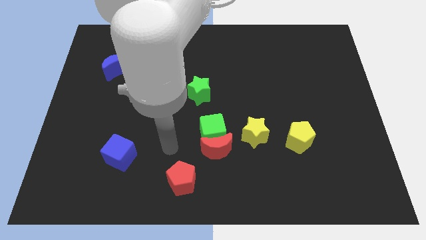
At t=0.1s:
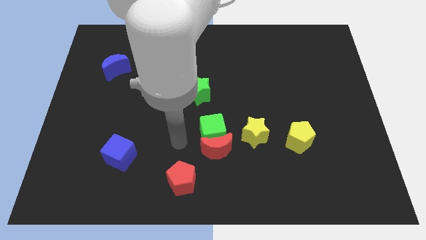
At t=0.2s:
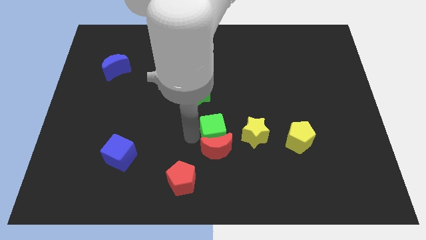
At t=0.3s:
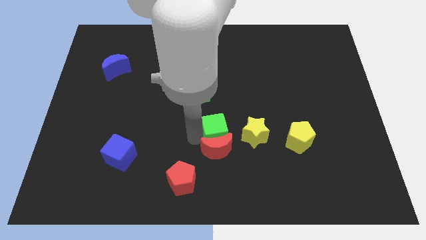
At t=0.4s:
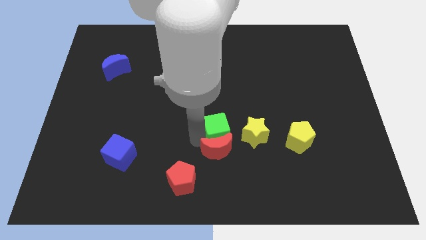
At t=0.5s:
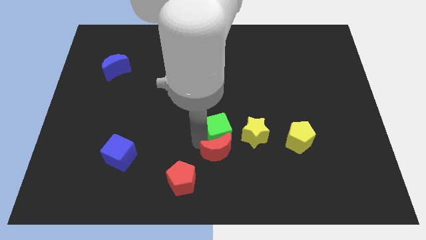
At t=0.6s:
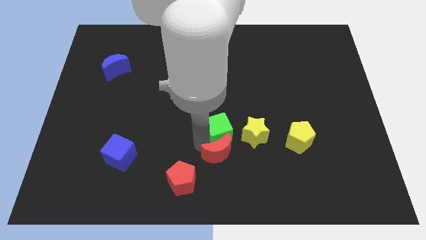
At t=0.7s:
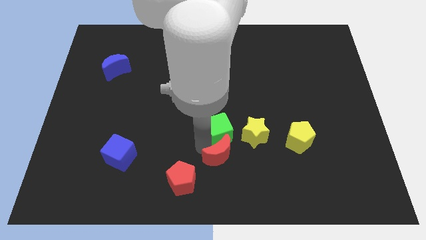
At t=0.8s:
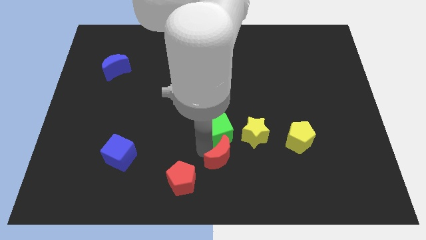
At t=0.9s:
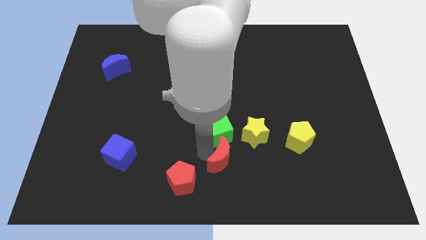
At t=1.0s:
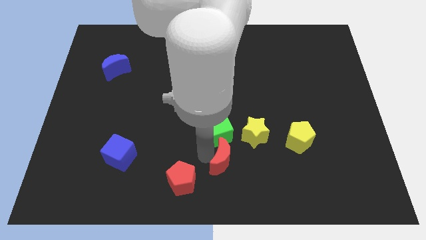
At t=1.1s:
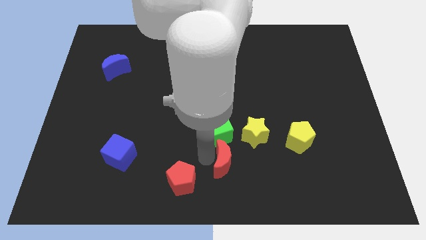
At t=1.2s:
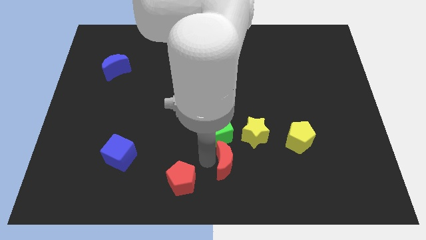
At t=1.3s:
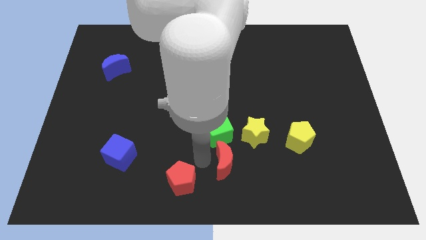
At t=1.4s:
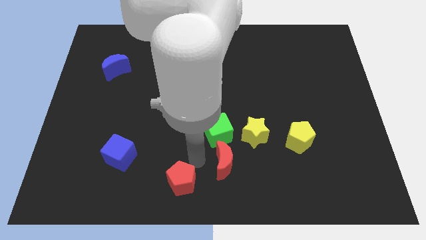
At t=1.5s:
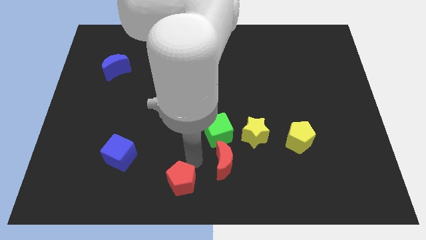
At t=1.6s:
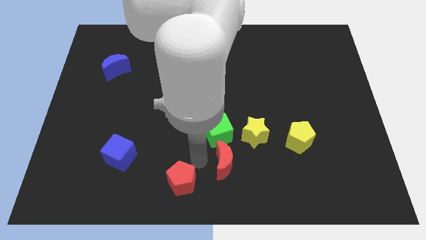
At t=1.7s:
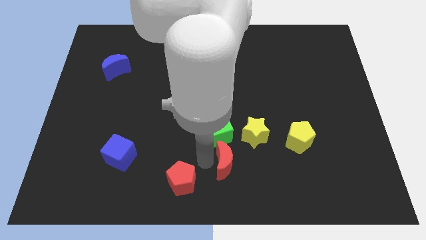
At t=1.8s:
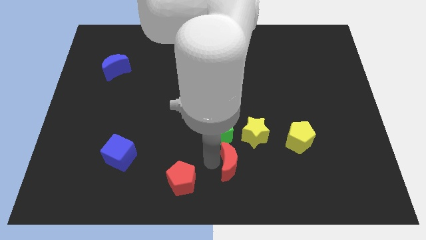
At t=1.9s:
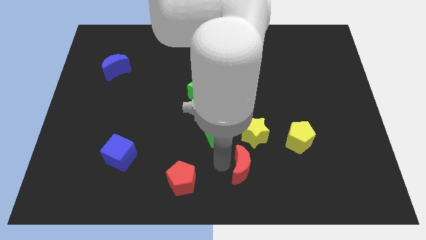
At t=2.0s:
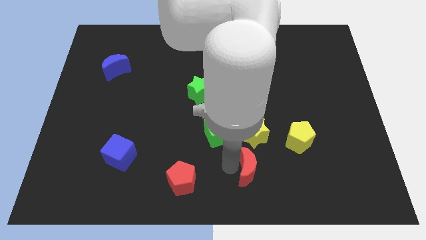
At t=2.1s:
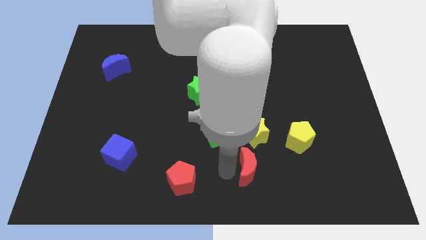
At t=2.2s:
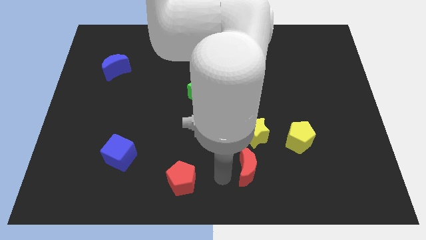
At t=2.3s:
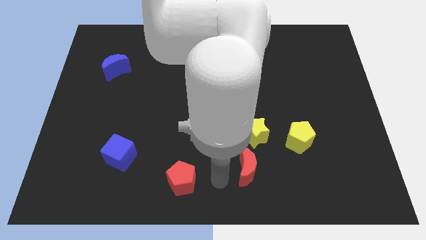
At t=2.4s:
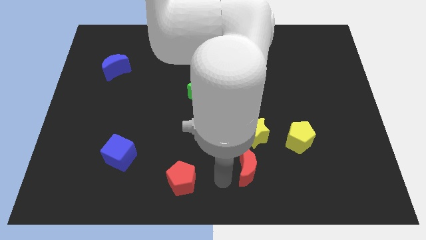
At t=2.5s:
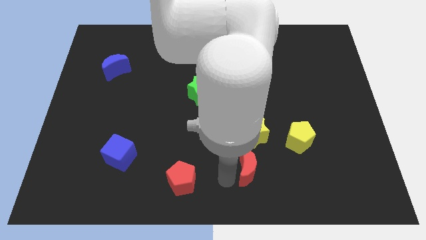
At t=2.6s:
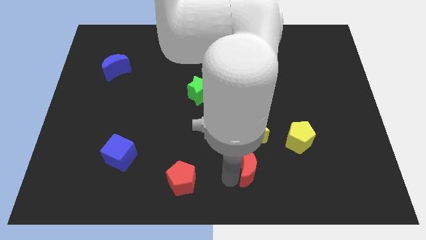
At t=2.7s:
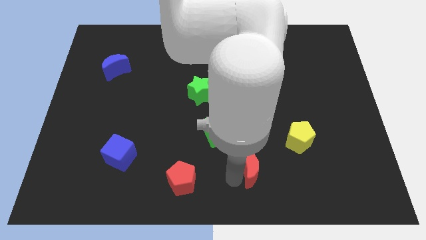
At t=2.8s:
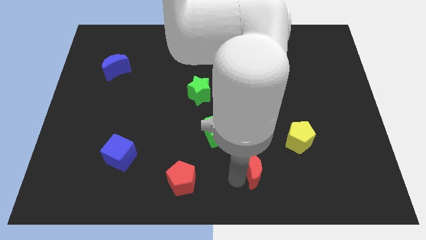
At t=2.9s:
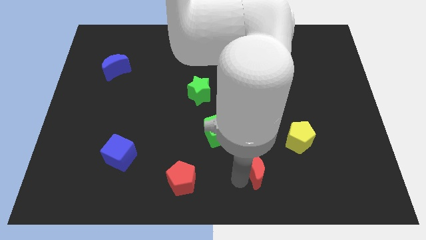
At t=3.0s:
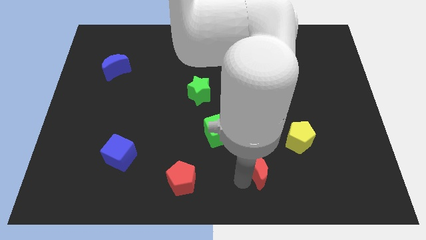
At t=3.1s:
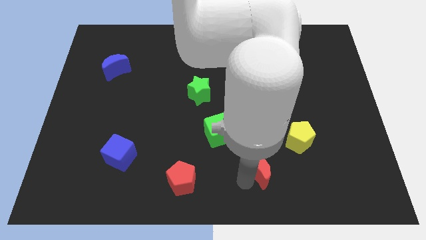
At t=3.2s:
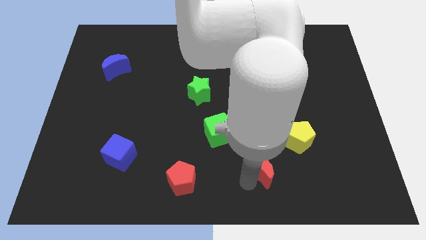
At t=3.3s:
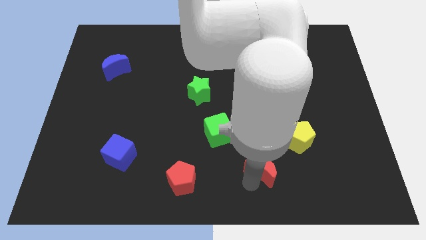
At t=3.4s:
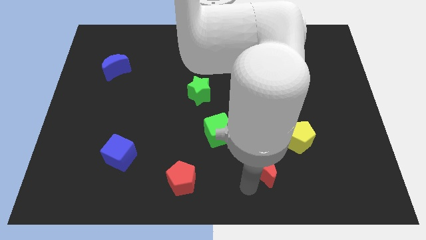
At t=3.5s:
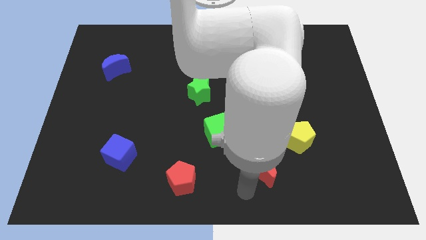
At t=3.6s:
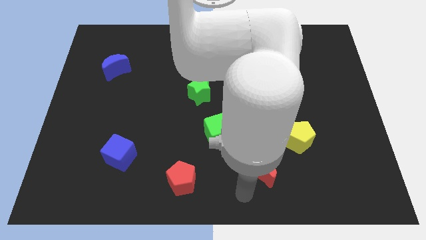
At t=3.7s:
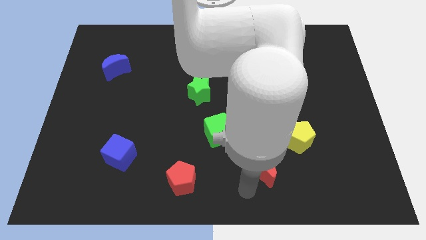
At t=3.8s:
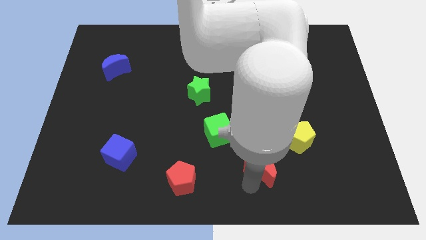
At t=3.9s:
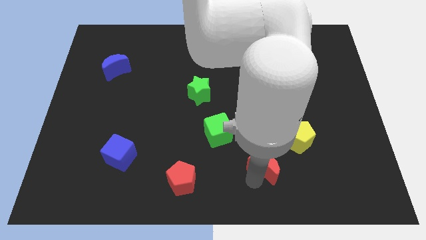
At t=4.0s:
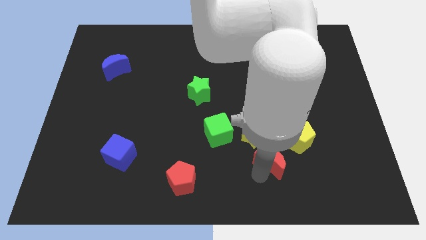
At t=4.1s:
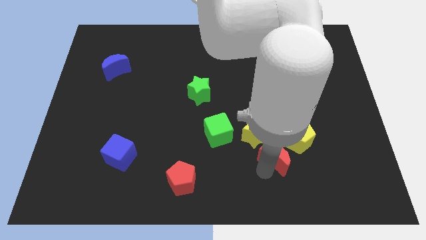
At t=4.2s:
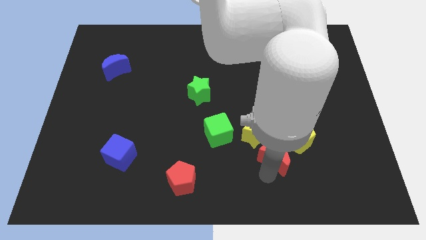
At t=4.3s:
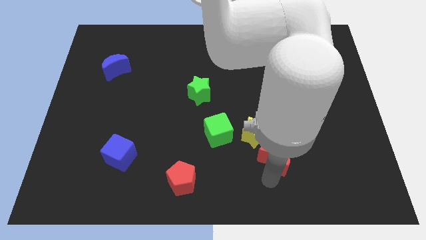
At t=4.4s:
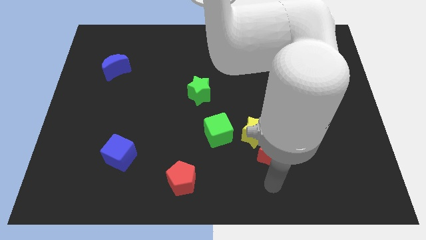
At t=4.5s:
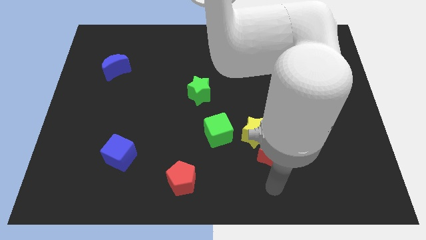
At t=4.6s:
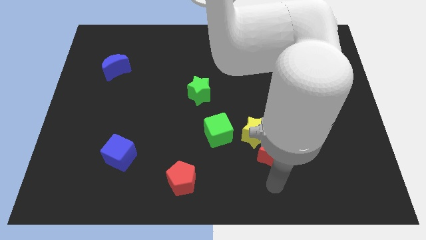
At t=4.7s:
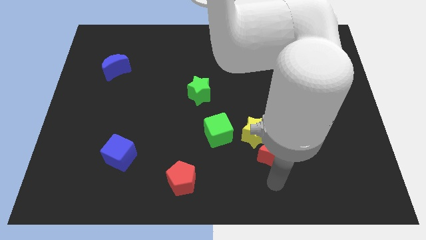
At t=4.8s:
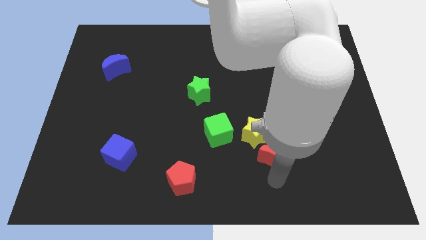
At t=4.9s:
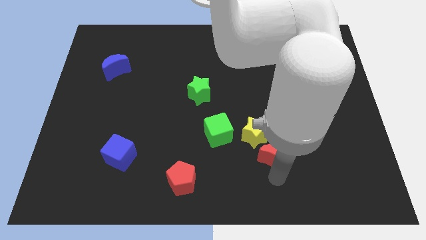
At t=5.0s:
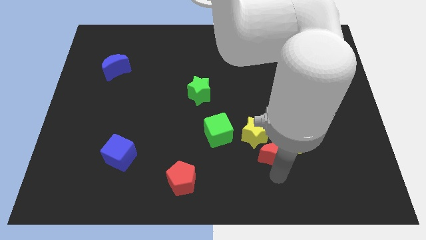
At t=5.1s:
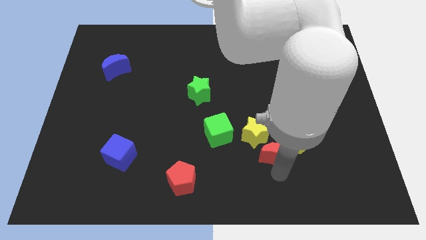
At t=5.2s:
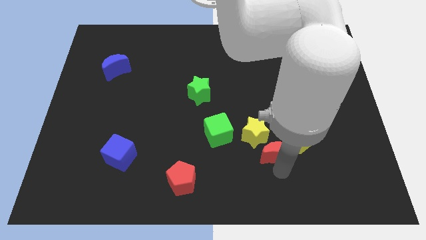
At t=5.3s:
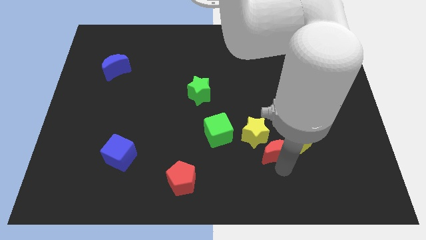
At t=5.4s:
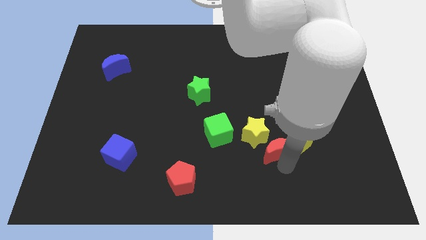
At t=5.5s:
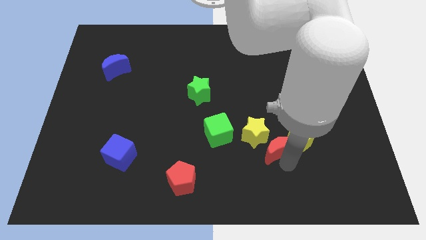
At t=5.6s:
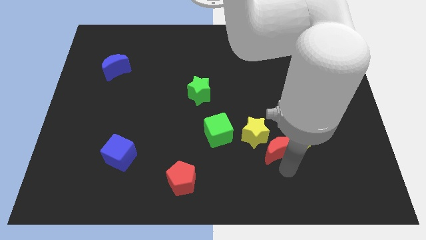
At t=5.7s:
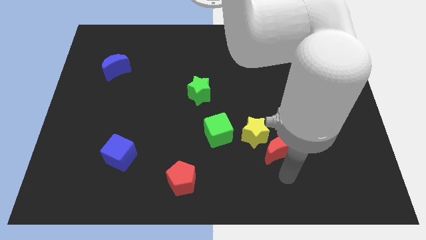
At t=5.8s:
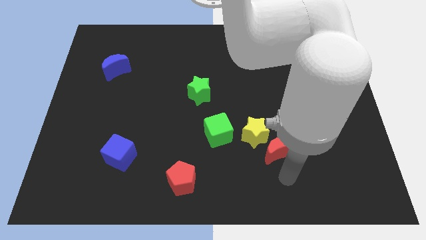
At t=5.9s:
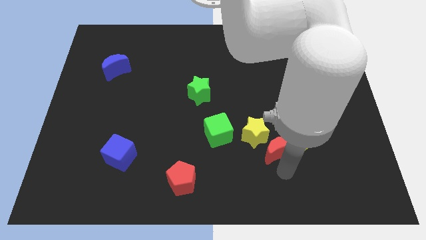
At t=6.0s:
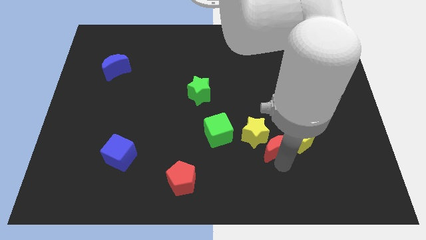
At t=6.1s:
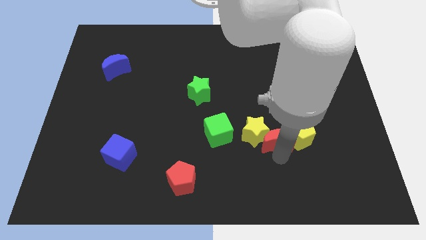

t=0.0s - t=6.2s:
push the red moon a little bit up and right diagonally

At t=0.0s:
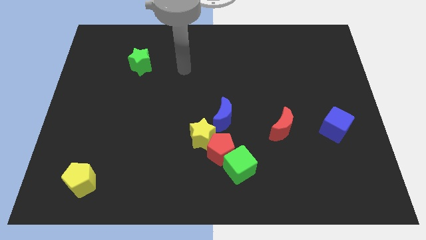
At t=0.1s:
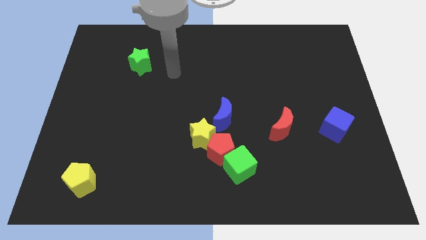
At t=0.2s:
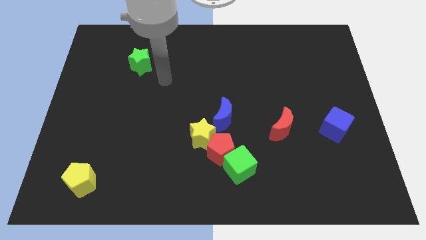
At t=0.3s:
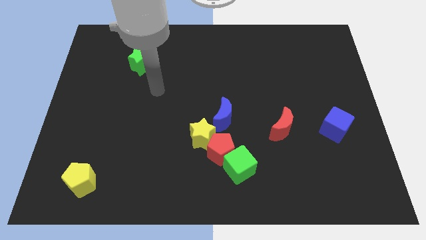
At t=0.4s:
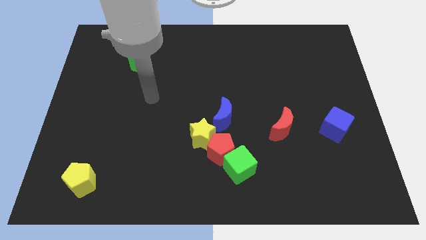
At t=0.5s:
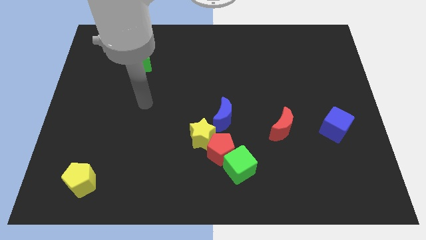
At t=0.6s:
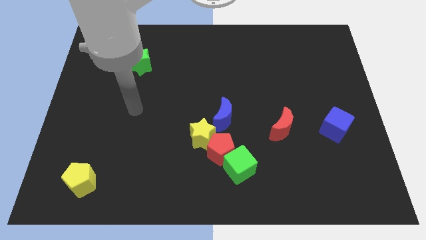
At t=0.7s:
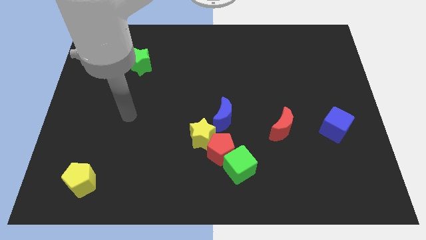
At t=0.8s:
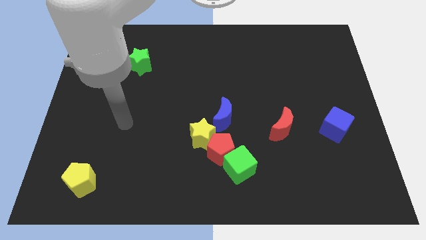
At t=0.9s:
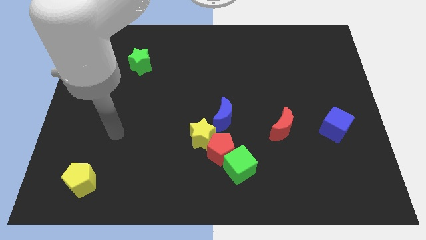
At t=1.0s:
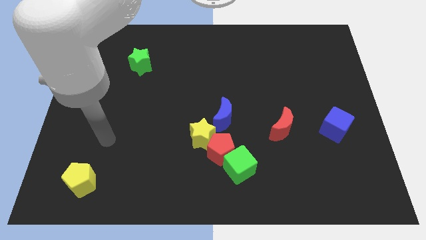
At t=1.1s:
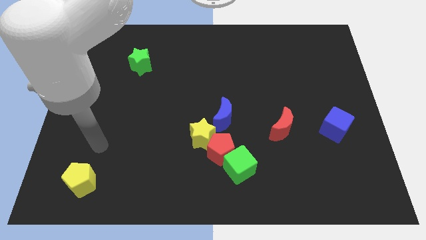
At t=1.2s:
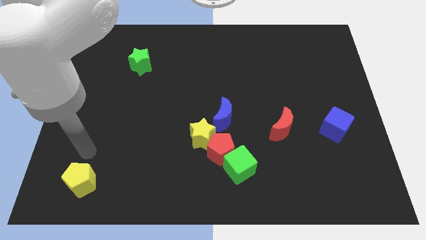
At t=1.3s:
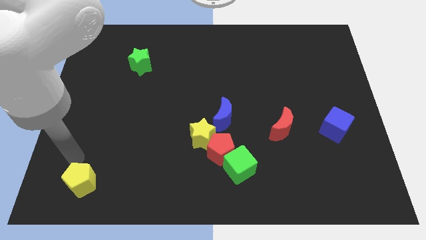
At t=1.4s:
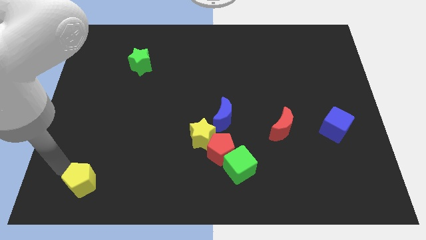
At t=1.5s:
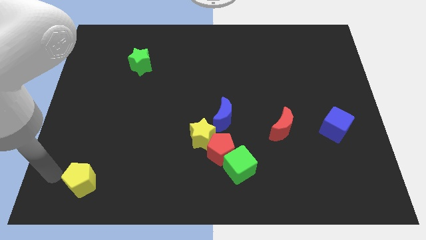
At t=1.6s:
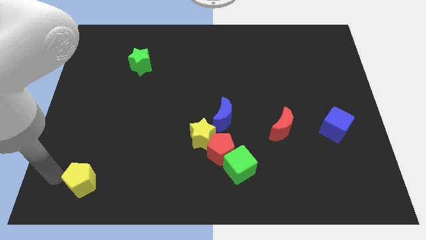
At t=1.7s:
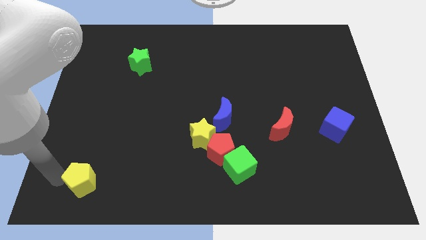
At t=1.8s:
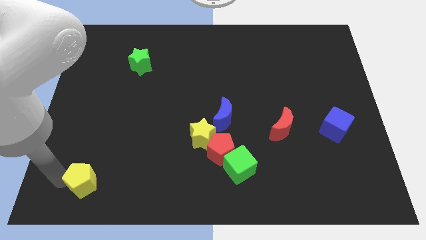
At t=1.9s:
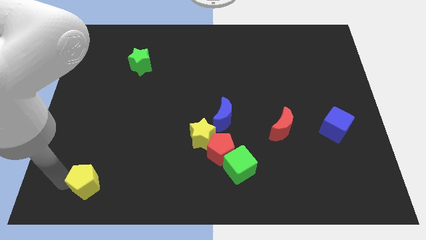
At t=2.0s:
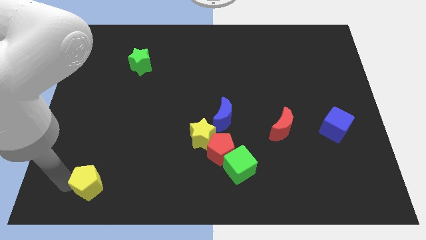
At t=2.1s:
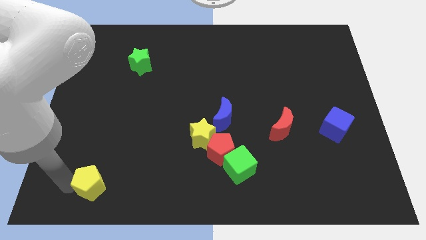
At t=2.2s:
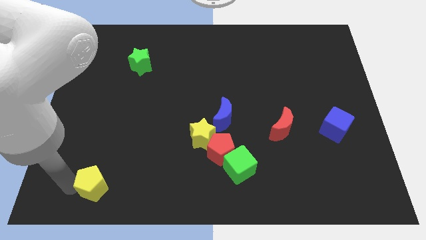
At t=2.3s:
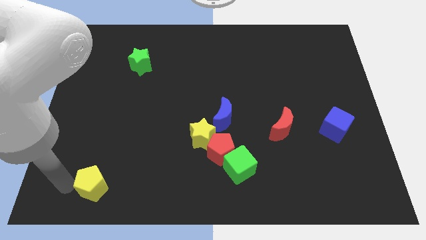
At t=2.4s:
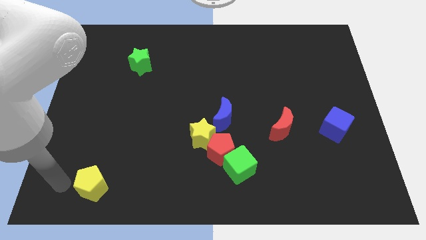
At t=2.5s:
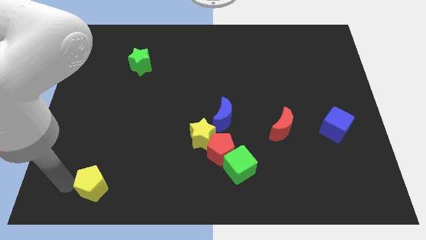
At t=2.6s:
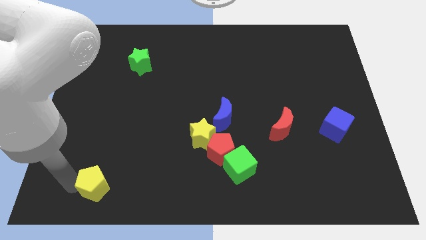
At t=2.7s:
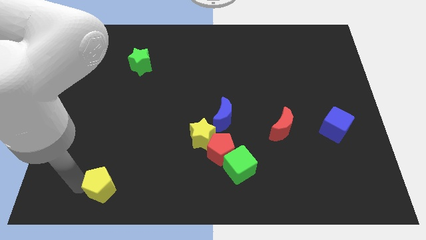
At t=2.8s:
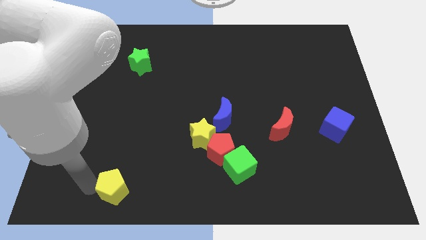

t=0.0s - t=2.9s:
push the yellow pentagon a little right
